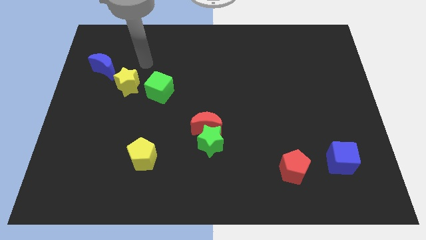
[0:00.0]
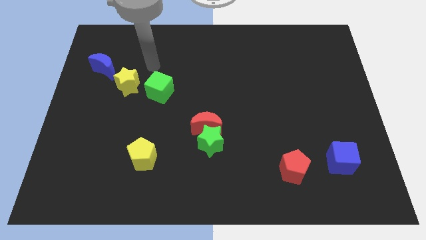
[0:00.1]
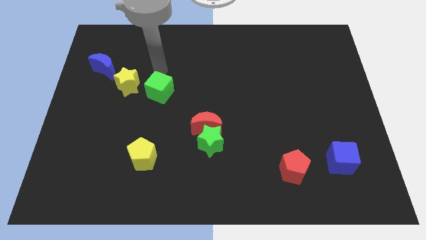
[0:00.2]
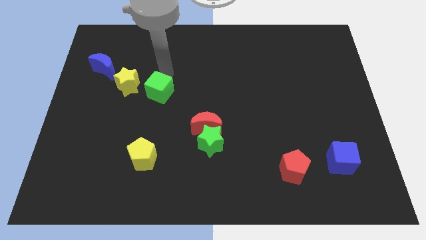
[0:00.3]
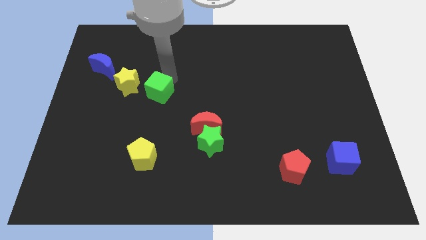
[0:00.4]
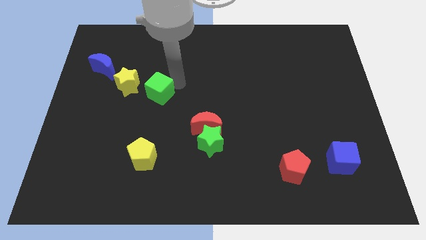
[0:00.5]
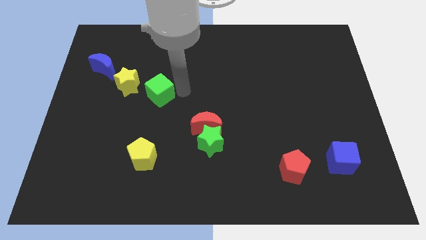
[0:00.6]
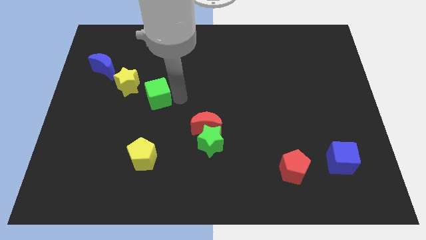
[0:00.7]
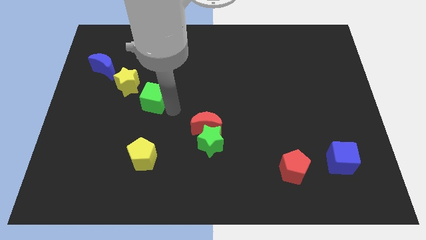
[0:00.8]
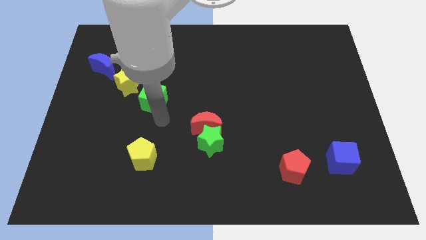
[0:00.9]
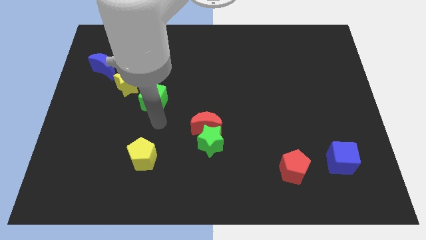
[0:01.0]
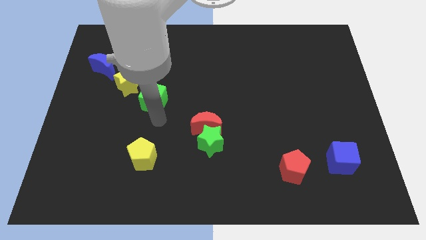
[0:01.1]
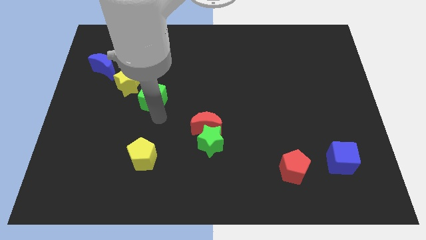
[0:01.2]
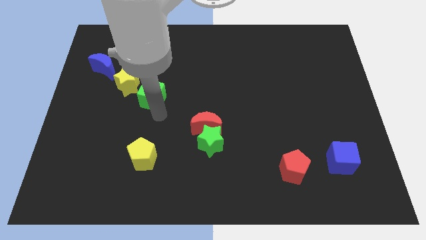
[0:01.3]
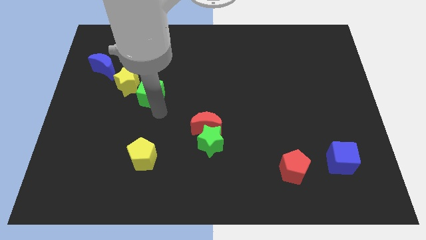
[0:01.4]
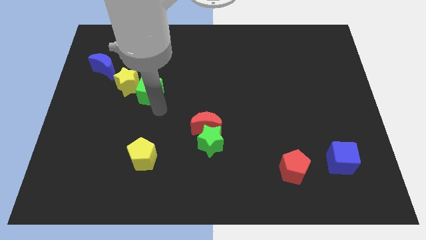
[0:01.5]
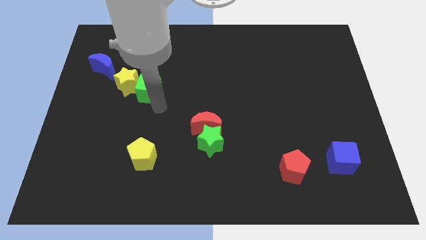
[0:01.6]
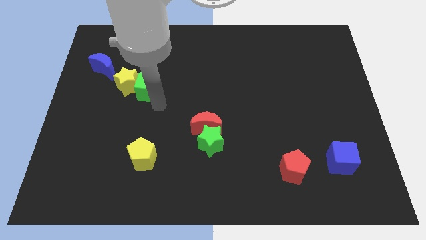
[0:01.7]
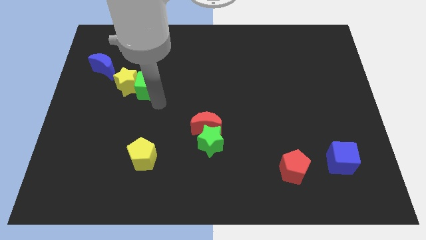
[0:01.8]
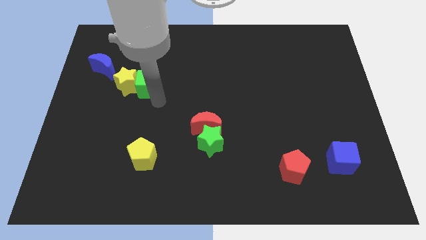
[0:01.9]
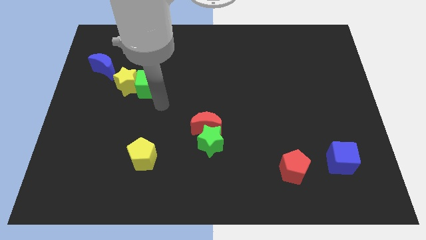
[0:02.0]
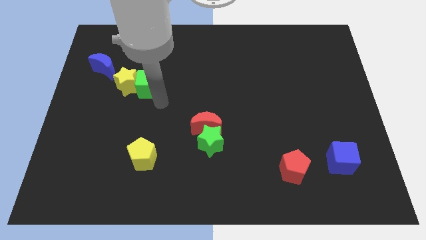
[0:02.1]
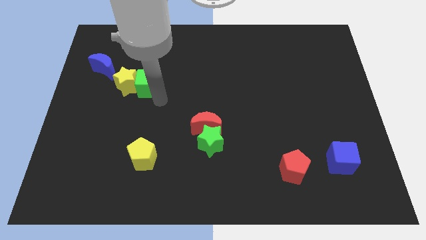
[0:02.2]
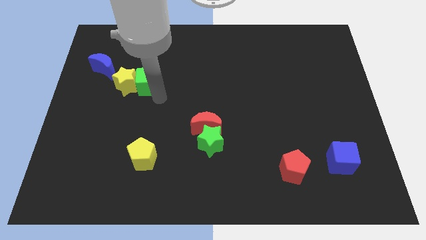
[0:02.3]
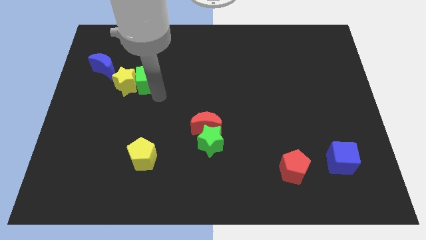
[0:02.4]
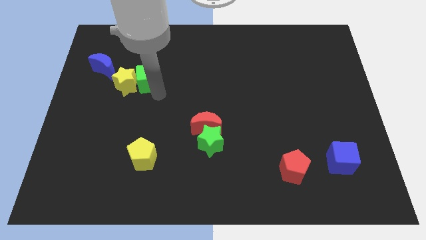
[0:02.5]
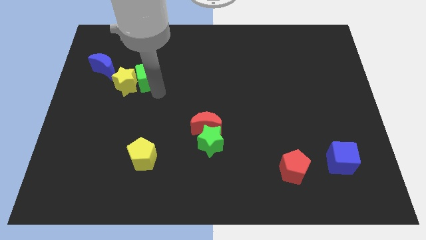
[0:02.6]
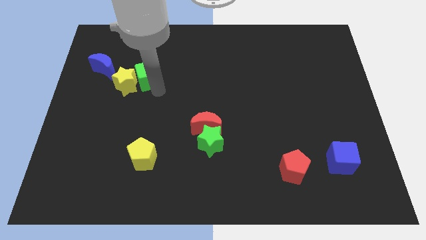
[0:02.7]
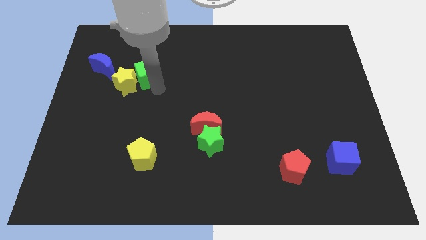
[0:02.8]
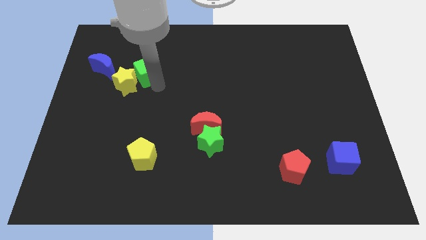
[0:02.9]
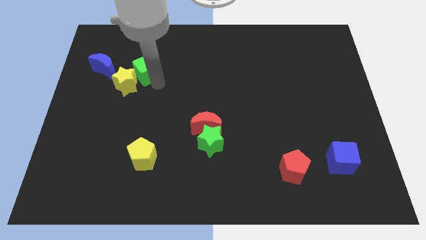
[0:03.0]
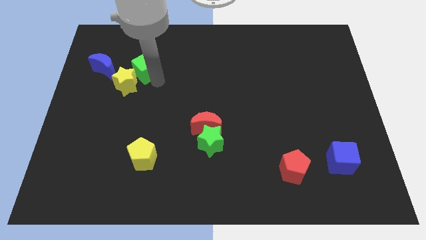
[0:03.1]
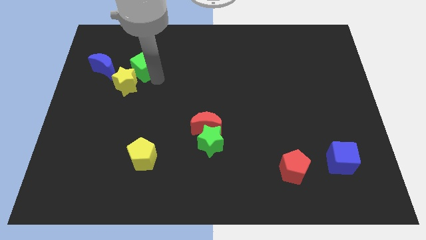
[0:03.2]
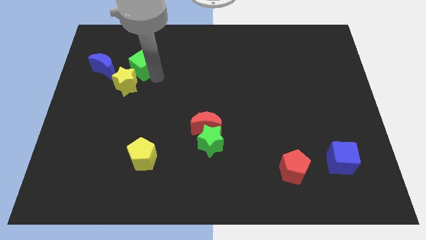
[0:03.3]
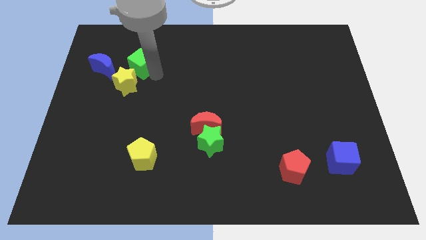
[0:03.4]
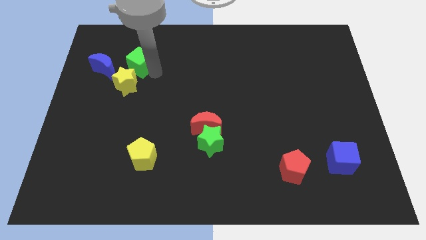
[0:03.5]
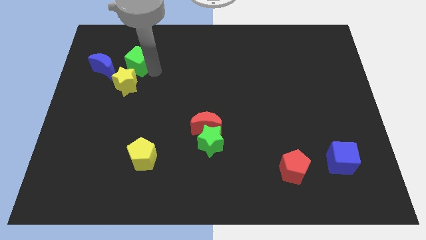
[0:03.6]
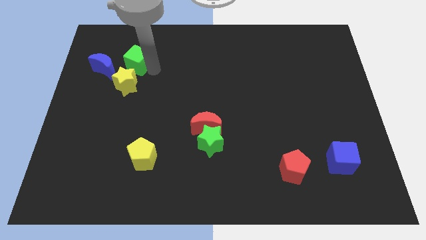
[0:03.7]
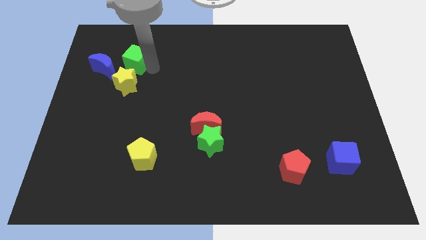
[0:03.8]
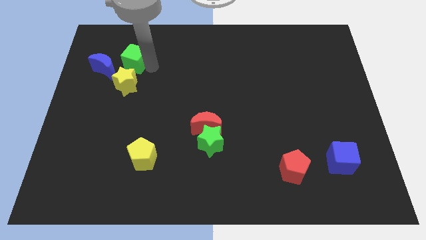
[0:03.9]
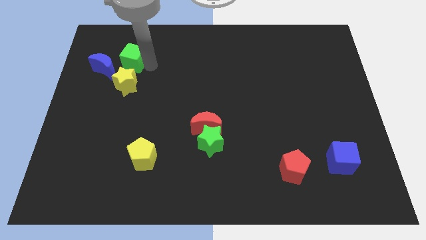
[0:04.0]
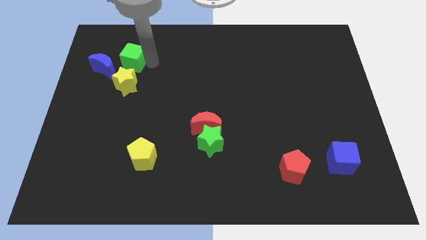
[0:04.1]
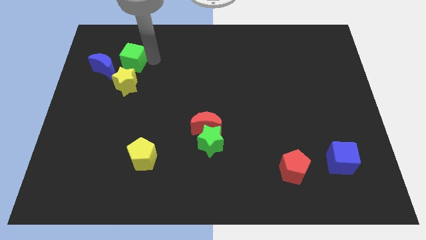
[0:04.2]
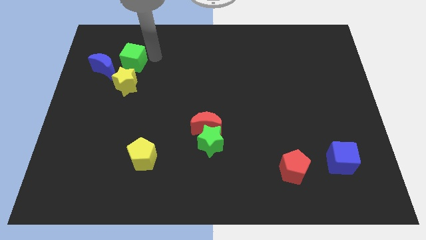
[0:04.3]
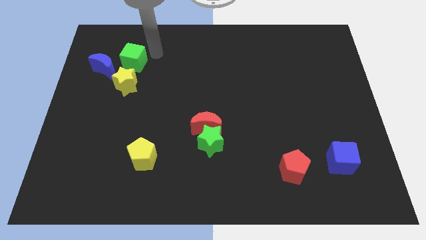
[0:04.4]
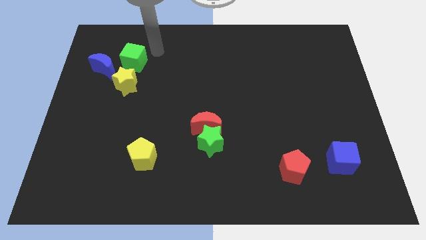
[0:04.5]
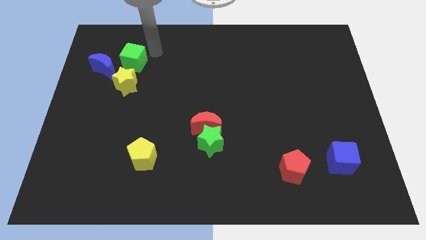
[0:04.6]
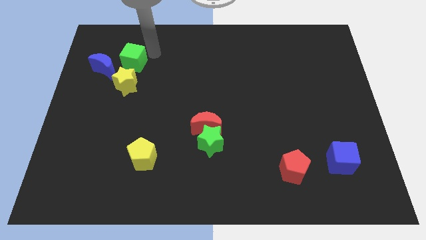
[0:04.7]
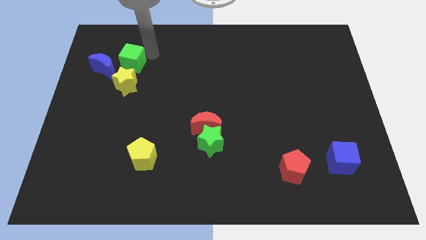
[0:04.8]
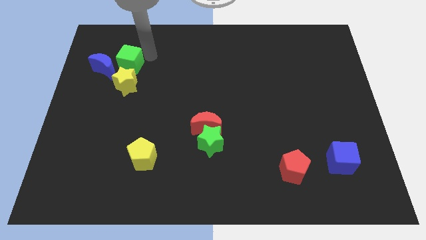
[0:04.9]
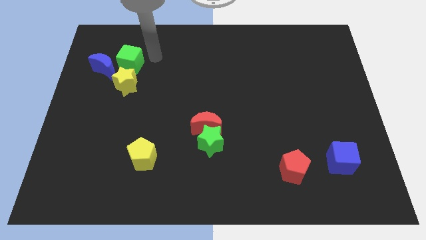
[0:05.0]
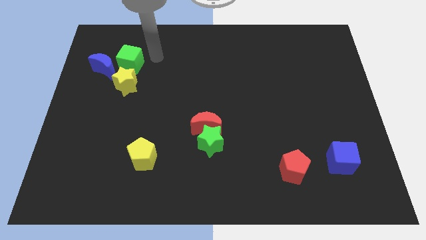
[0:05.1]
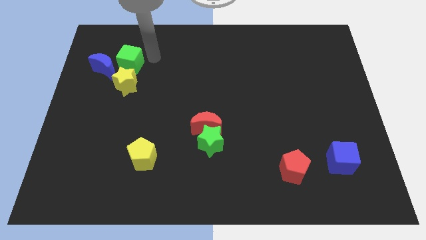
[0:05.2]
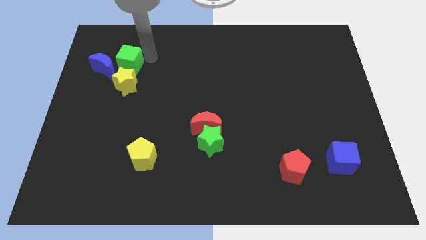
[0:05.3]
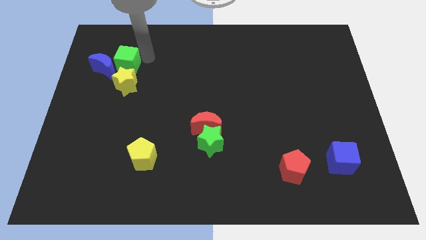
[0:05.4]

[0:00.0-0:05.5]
move the green cube to the blue moon

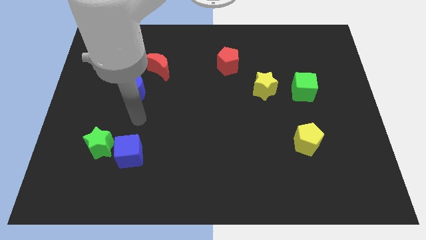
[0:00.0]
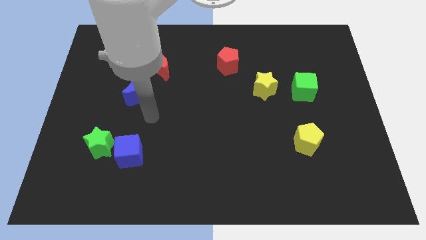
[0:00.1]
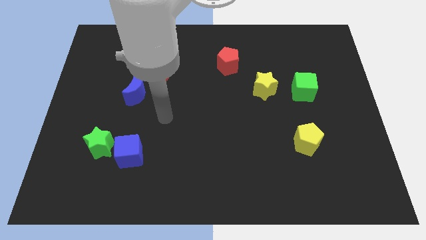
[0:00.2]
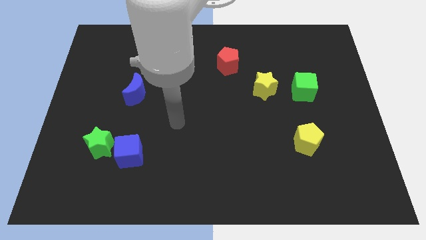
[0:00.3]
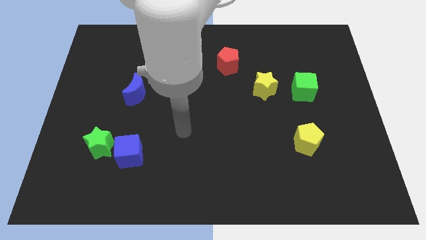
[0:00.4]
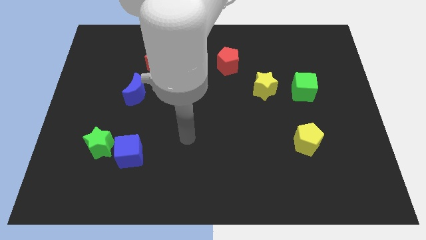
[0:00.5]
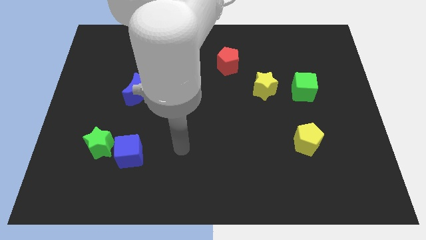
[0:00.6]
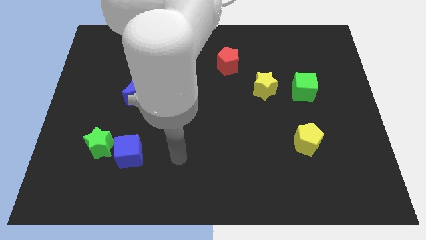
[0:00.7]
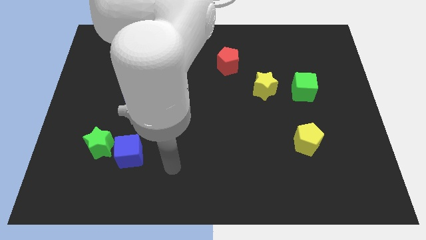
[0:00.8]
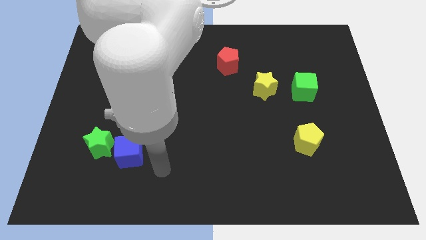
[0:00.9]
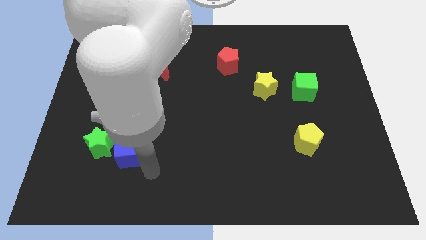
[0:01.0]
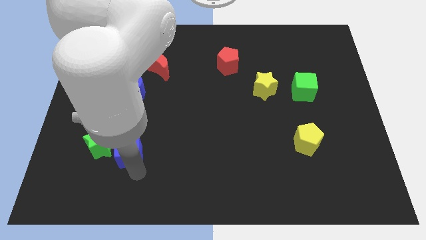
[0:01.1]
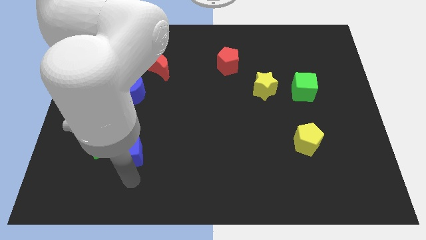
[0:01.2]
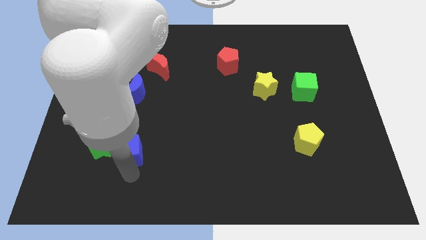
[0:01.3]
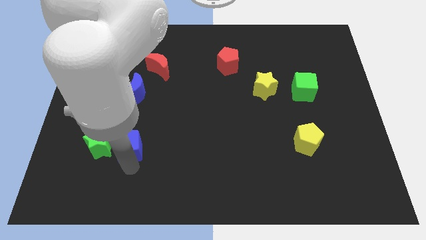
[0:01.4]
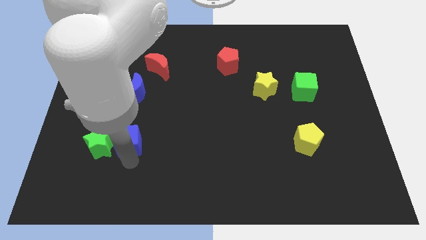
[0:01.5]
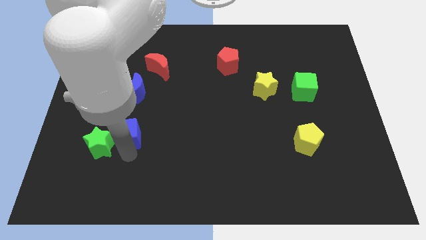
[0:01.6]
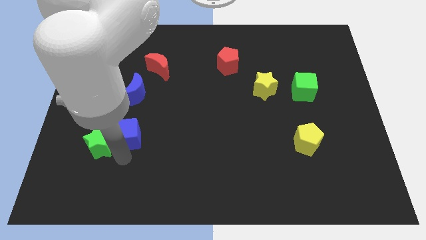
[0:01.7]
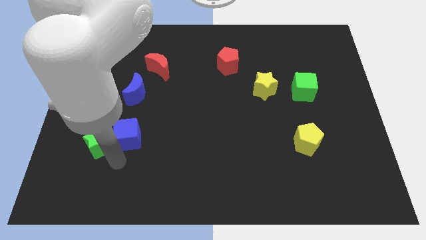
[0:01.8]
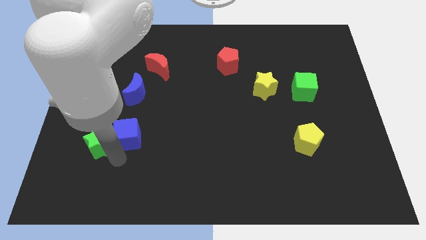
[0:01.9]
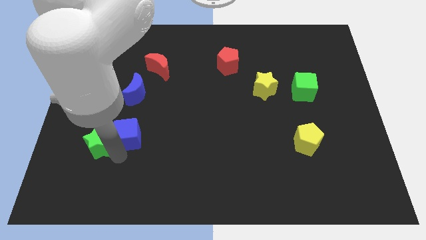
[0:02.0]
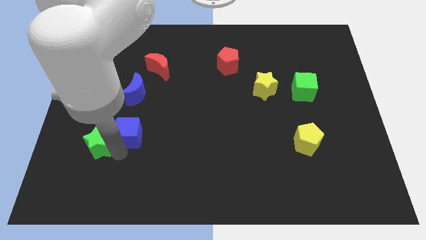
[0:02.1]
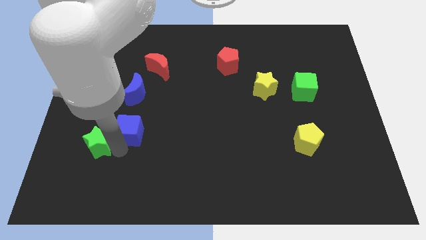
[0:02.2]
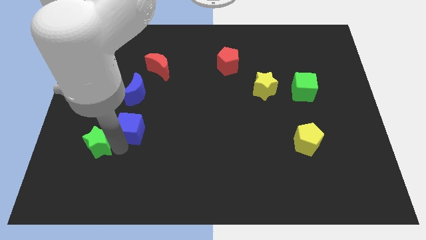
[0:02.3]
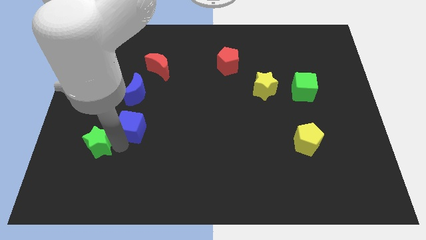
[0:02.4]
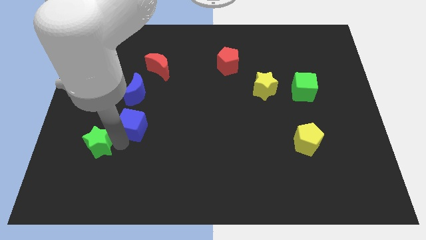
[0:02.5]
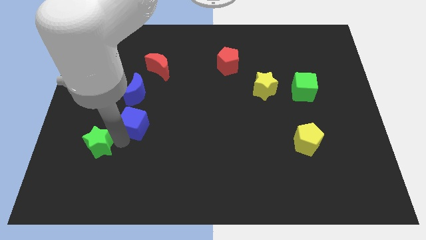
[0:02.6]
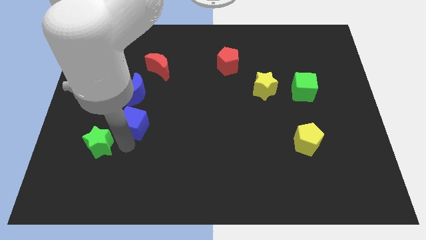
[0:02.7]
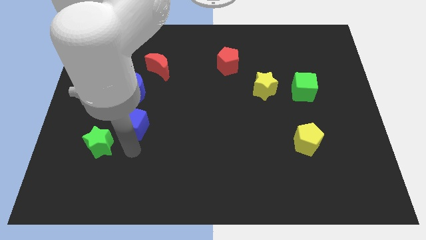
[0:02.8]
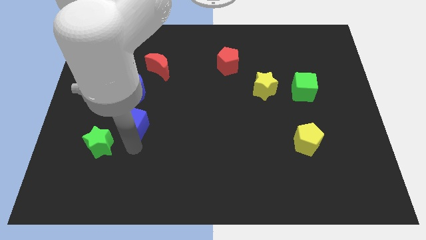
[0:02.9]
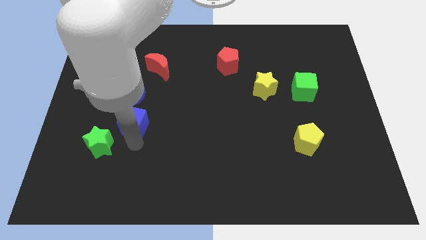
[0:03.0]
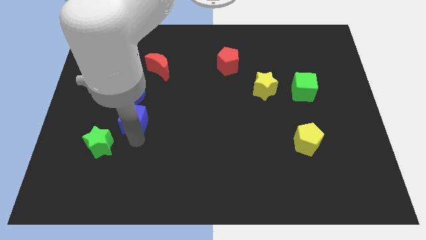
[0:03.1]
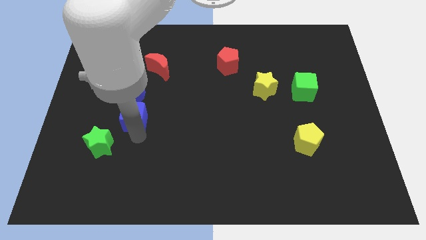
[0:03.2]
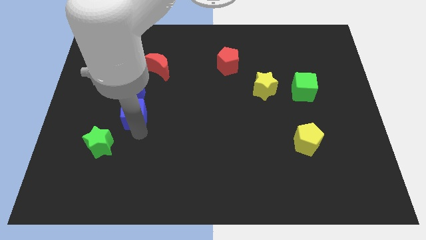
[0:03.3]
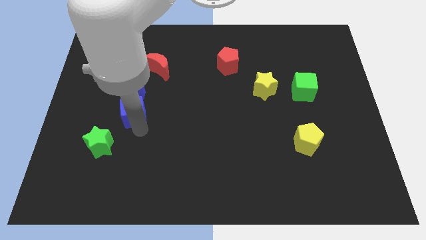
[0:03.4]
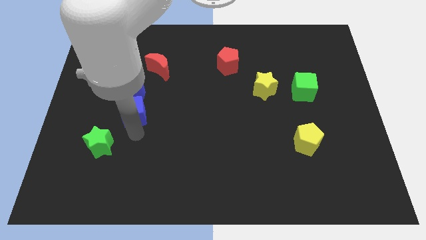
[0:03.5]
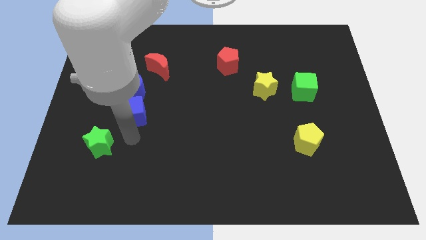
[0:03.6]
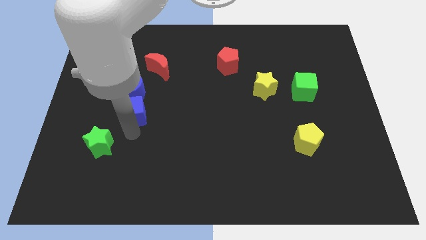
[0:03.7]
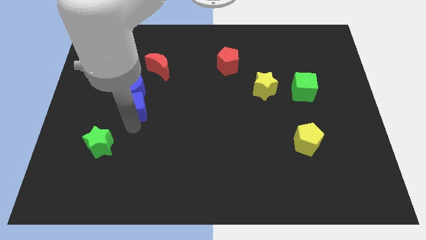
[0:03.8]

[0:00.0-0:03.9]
move the blue cube towards the blue moon
